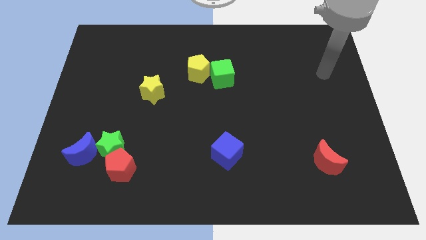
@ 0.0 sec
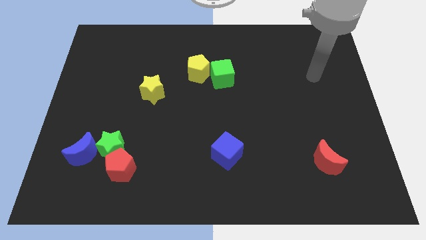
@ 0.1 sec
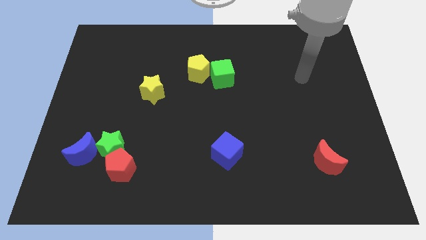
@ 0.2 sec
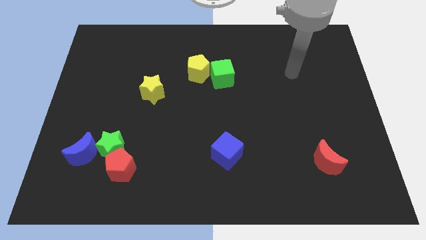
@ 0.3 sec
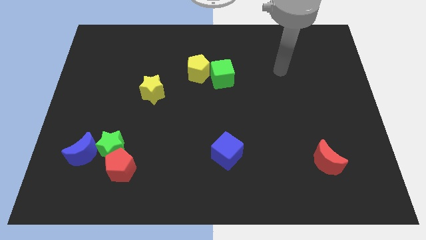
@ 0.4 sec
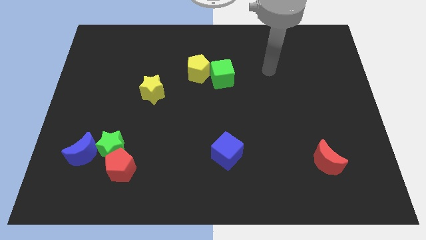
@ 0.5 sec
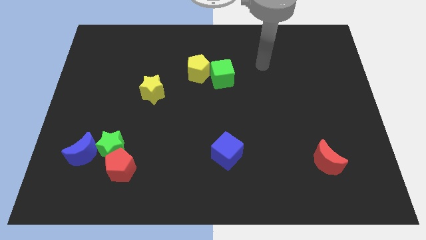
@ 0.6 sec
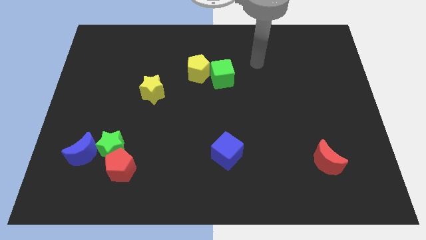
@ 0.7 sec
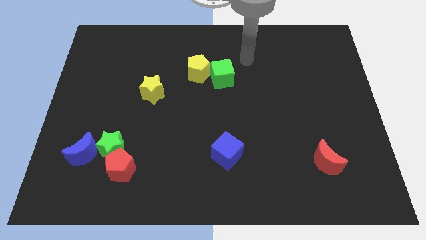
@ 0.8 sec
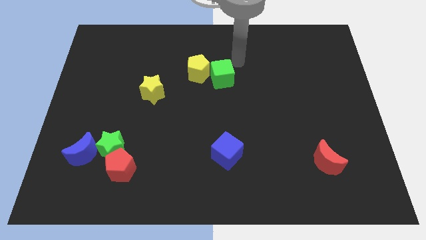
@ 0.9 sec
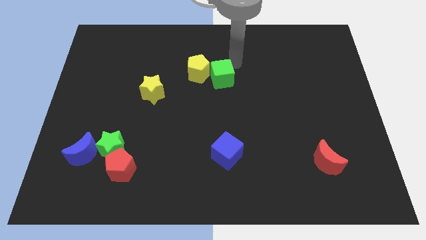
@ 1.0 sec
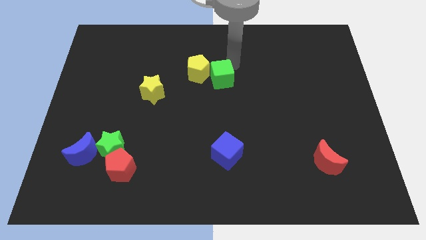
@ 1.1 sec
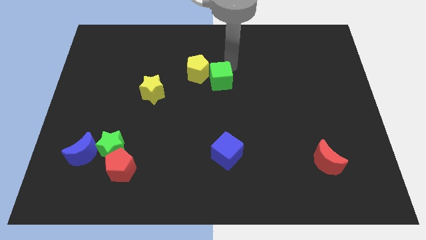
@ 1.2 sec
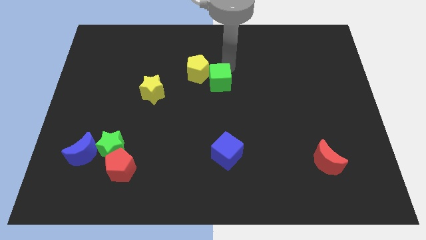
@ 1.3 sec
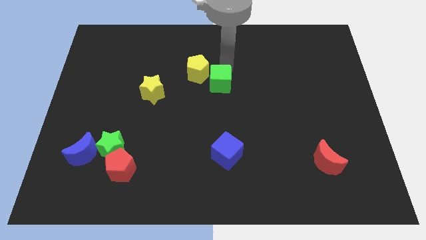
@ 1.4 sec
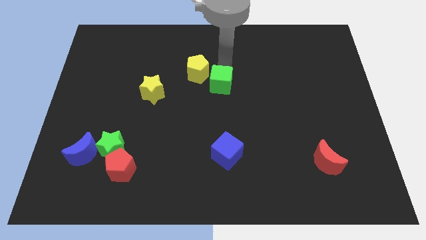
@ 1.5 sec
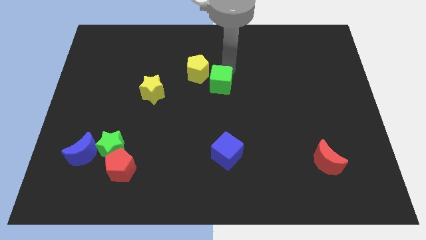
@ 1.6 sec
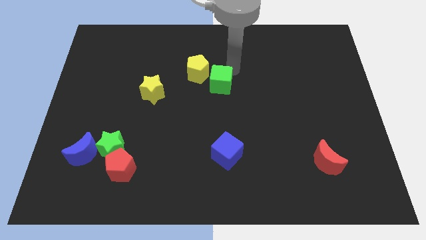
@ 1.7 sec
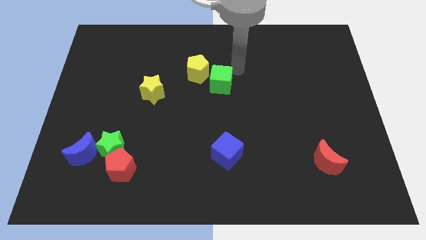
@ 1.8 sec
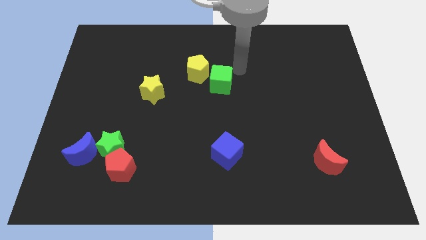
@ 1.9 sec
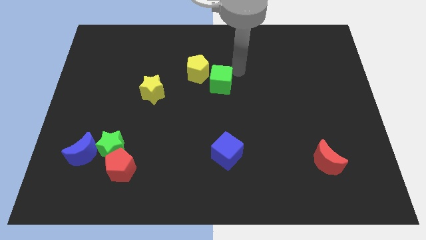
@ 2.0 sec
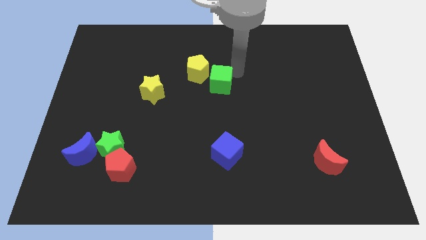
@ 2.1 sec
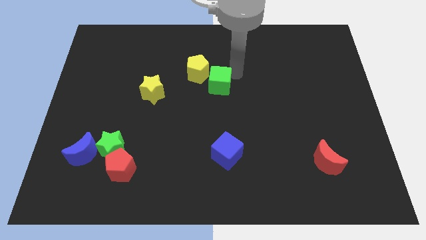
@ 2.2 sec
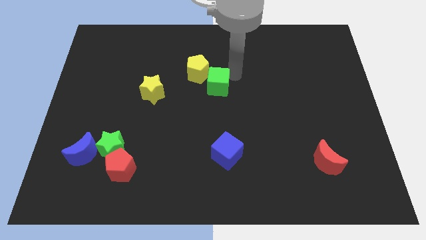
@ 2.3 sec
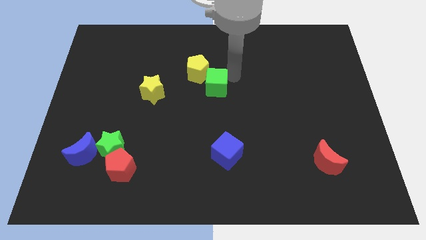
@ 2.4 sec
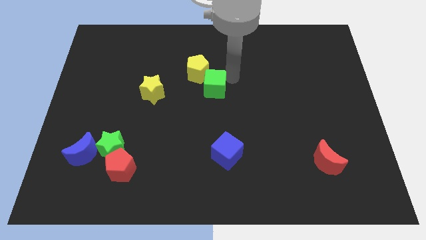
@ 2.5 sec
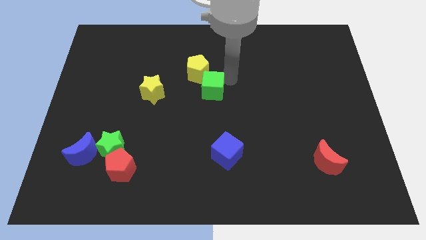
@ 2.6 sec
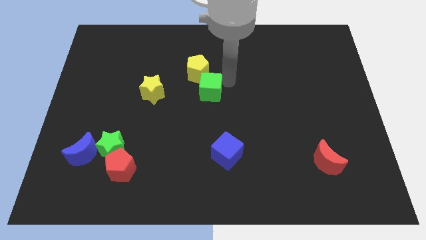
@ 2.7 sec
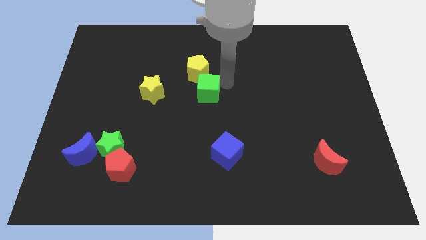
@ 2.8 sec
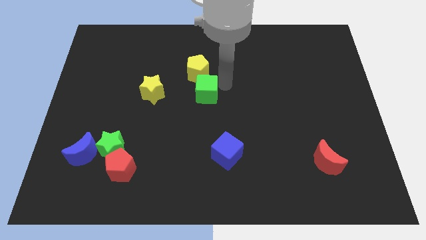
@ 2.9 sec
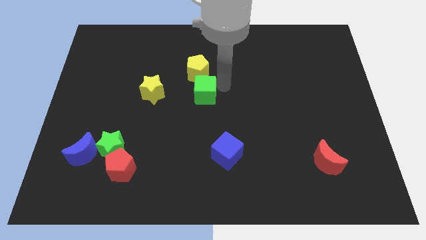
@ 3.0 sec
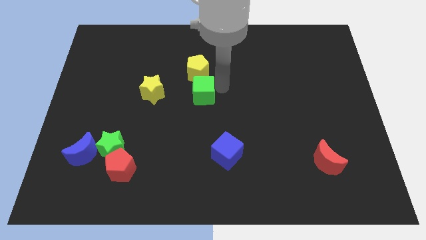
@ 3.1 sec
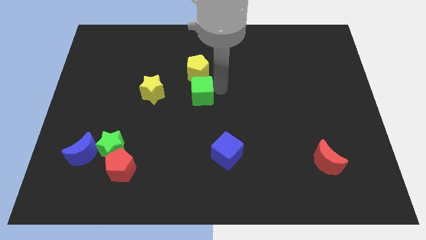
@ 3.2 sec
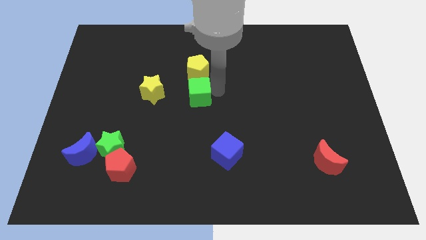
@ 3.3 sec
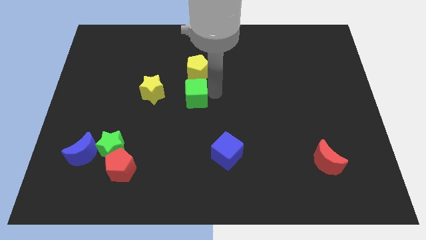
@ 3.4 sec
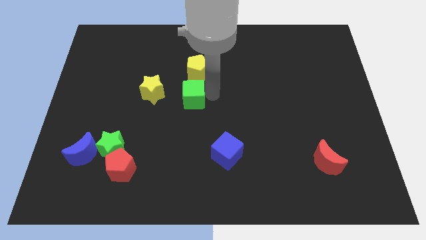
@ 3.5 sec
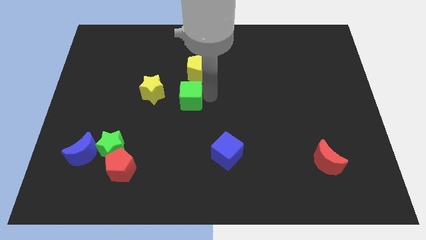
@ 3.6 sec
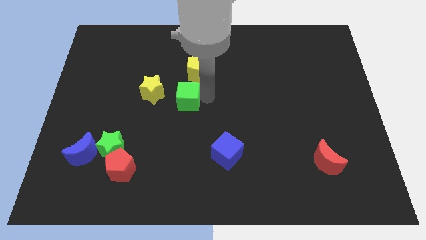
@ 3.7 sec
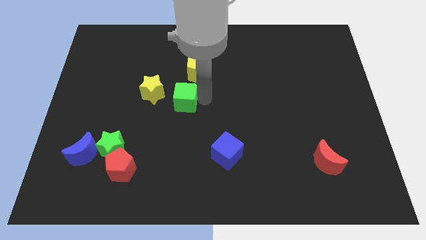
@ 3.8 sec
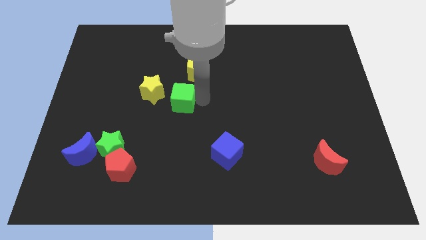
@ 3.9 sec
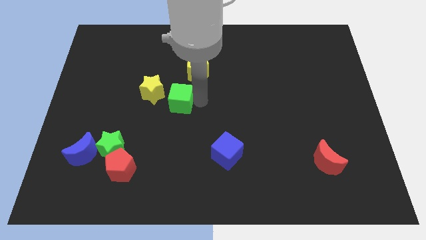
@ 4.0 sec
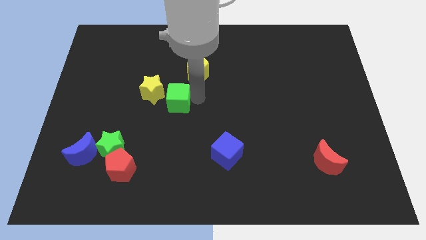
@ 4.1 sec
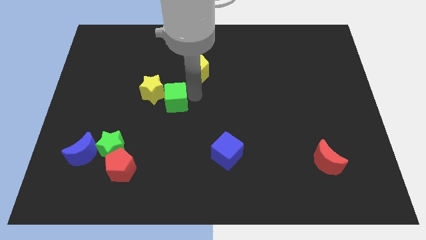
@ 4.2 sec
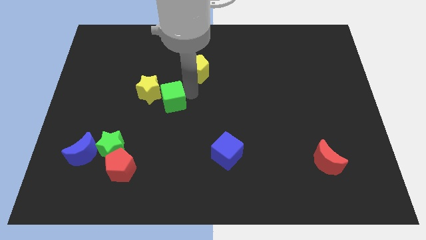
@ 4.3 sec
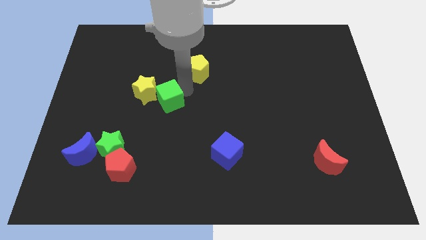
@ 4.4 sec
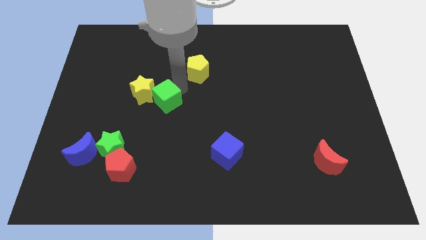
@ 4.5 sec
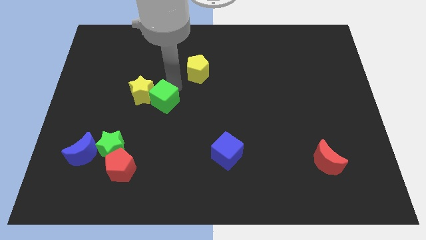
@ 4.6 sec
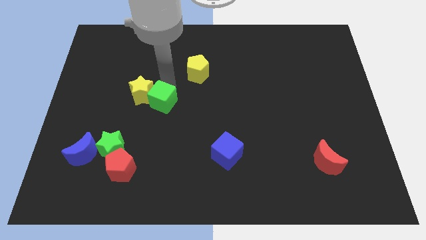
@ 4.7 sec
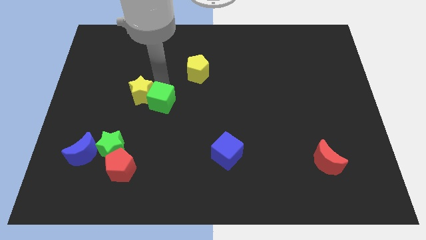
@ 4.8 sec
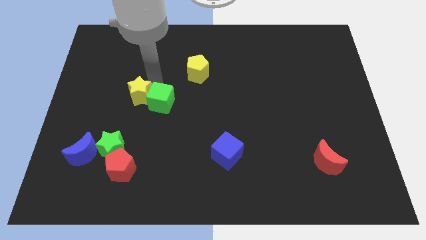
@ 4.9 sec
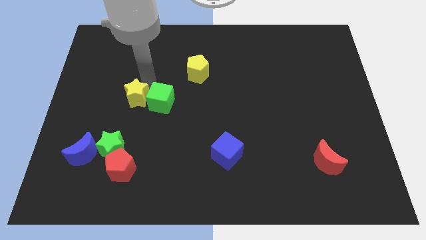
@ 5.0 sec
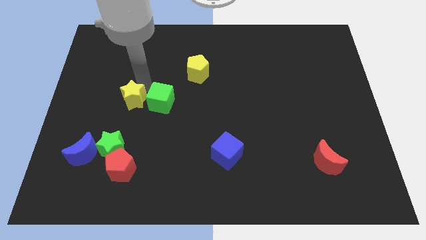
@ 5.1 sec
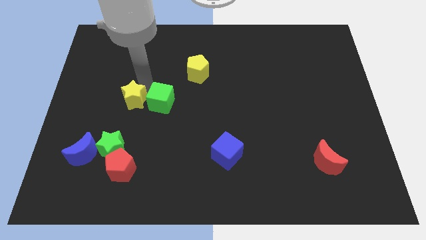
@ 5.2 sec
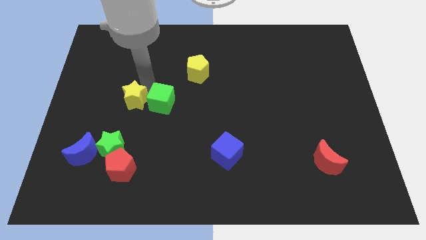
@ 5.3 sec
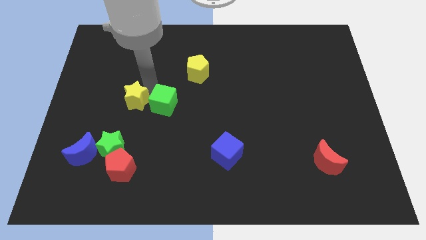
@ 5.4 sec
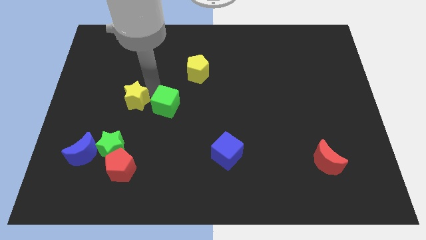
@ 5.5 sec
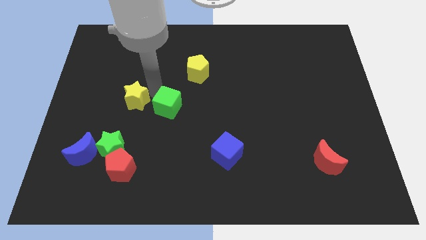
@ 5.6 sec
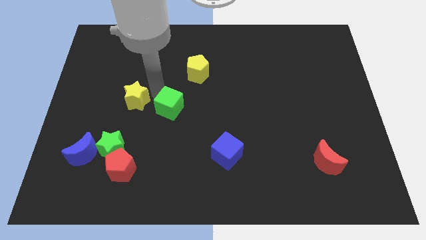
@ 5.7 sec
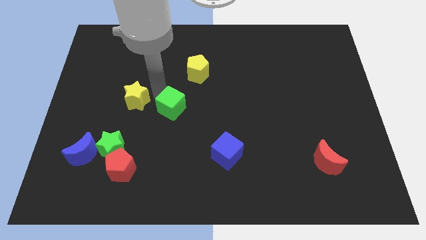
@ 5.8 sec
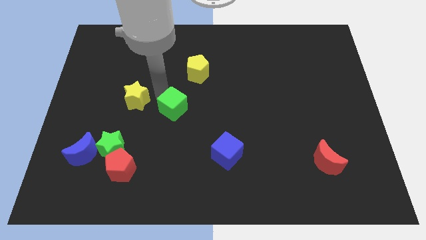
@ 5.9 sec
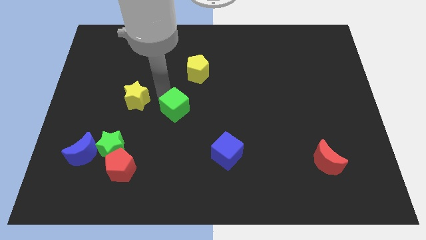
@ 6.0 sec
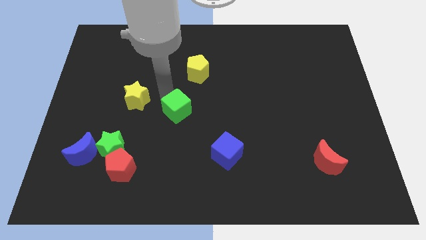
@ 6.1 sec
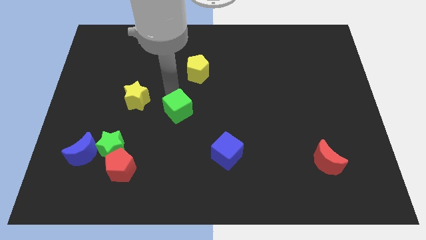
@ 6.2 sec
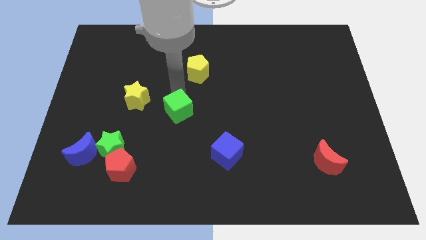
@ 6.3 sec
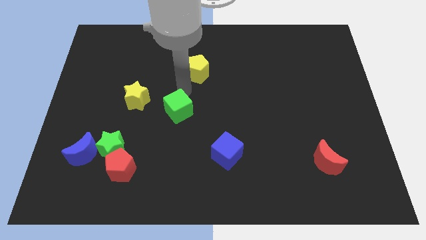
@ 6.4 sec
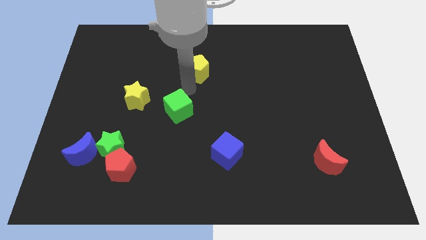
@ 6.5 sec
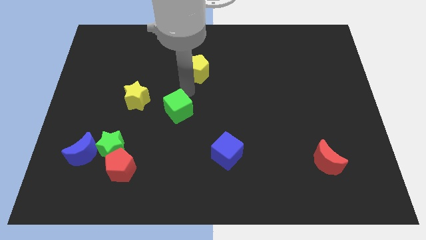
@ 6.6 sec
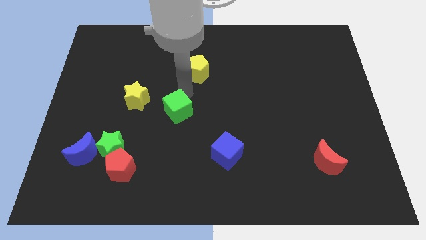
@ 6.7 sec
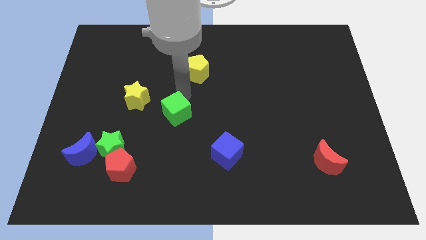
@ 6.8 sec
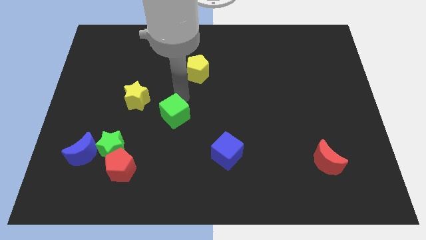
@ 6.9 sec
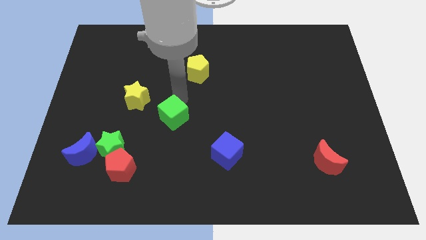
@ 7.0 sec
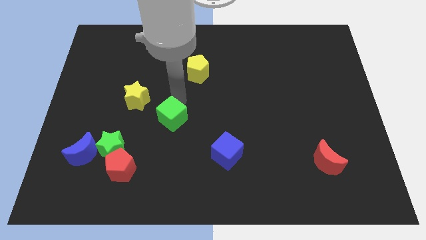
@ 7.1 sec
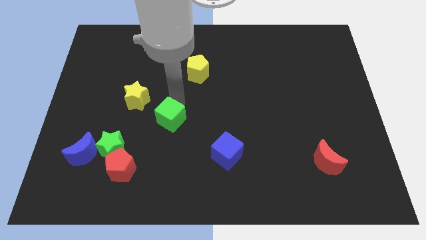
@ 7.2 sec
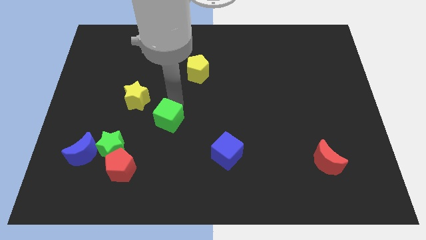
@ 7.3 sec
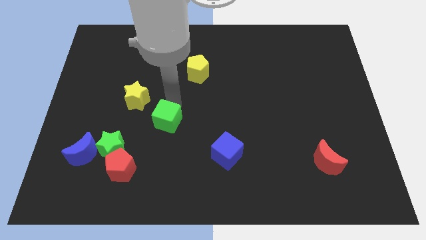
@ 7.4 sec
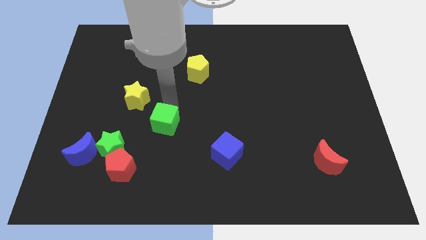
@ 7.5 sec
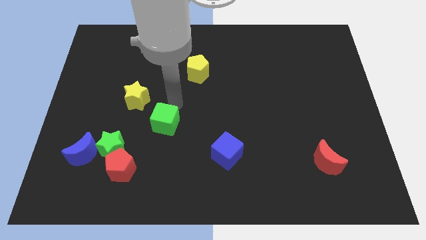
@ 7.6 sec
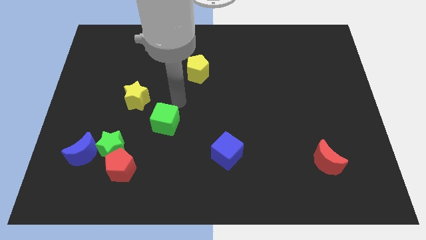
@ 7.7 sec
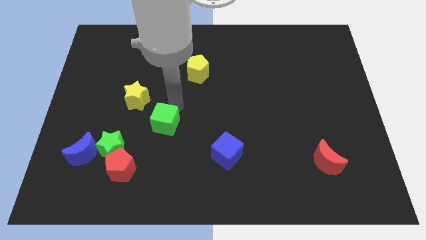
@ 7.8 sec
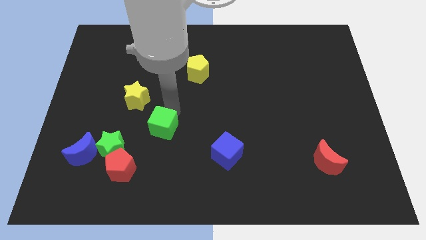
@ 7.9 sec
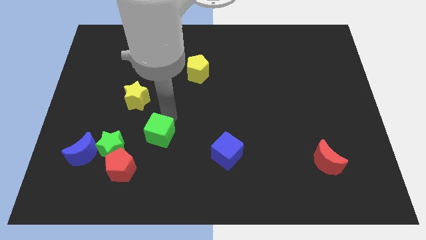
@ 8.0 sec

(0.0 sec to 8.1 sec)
push the green cube to the top right side of the red pentagon
